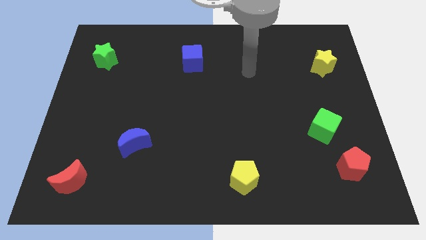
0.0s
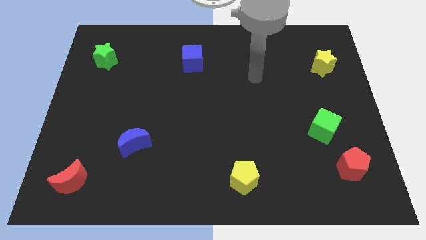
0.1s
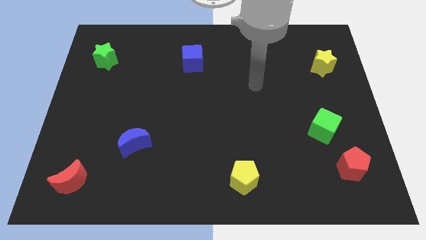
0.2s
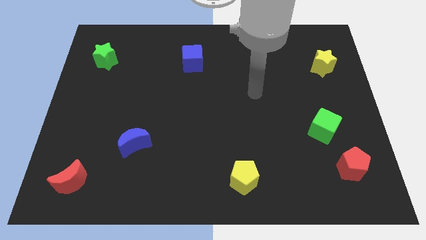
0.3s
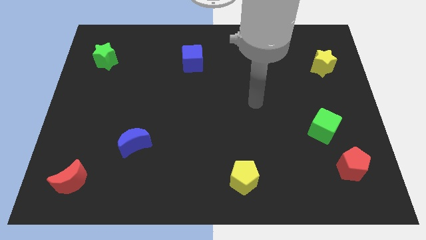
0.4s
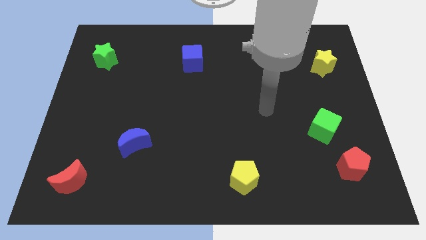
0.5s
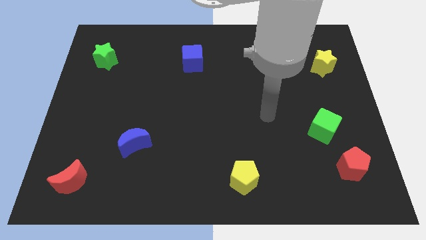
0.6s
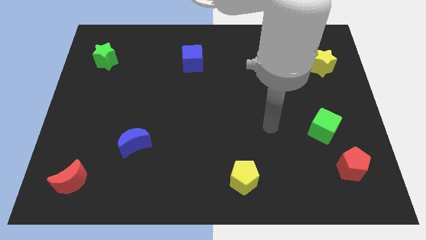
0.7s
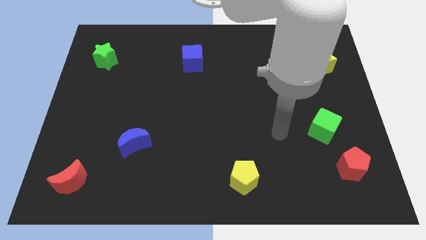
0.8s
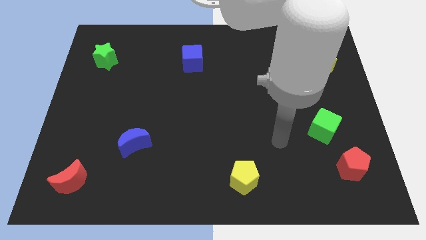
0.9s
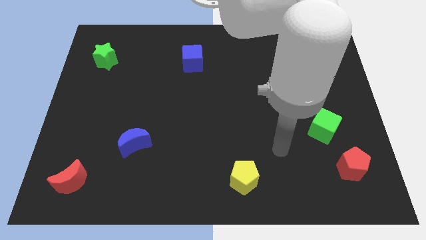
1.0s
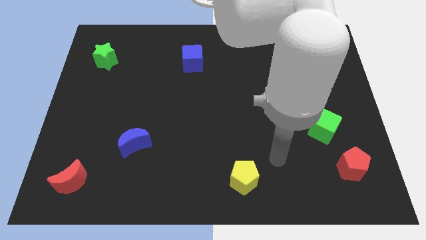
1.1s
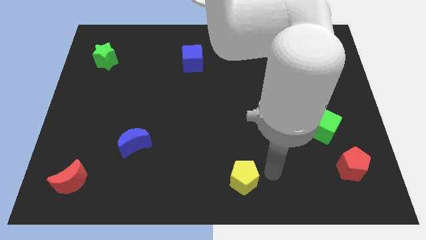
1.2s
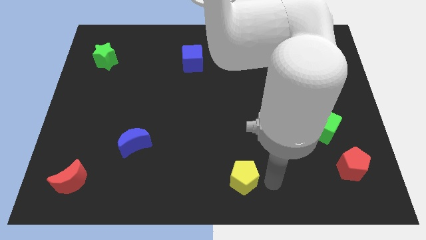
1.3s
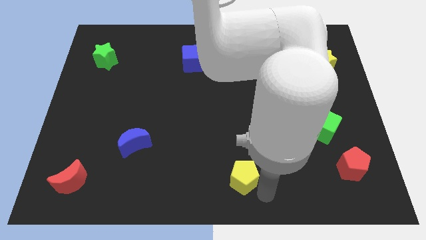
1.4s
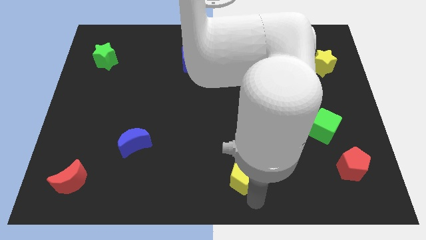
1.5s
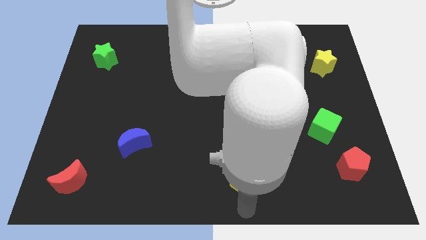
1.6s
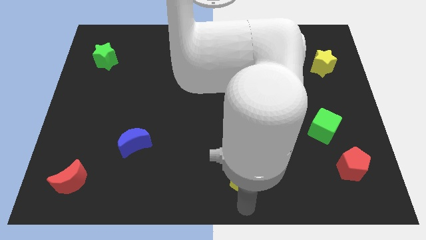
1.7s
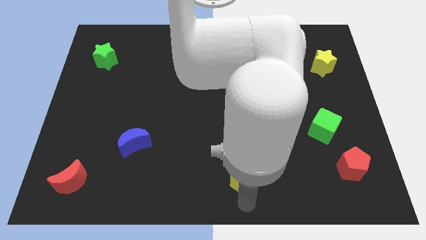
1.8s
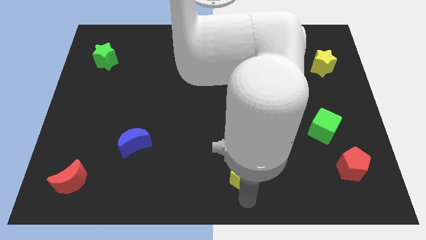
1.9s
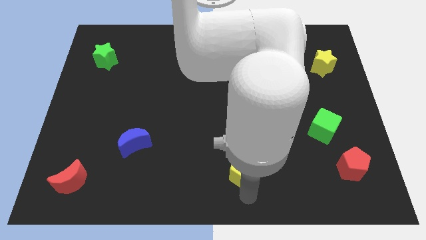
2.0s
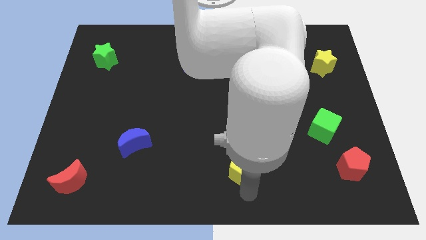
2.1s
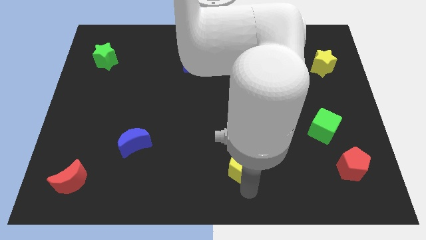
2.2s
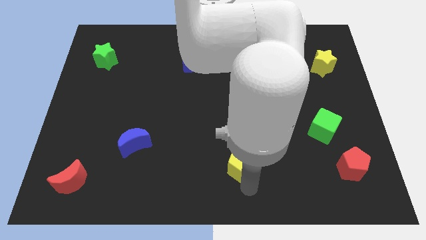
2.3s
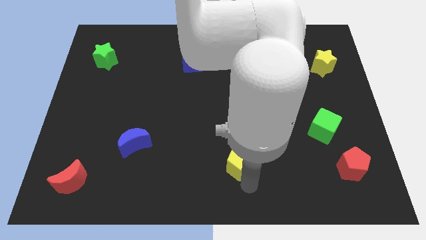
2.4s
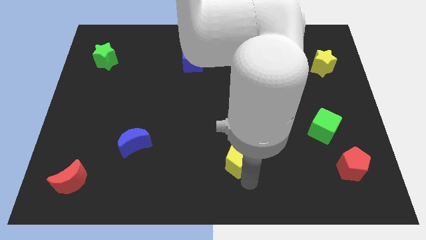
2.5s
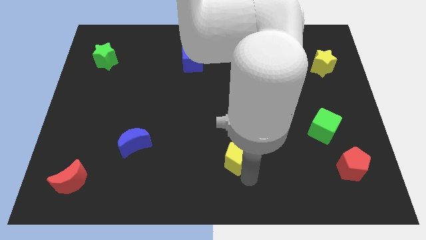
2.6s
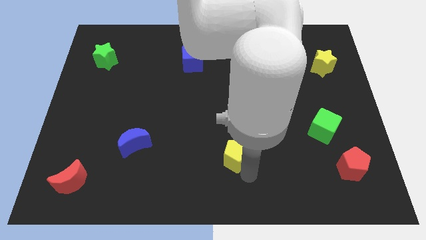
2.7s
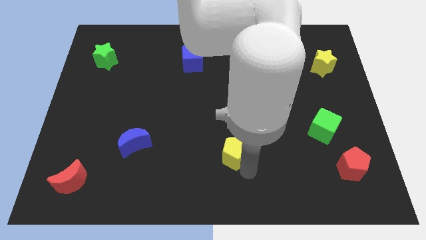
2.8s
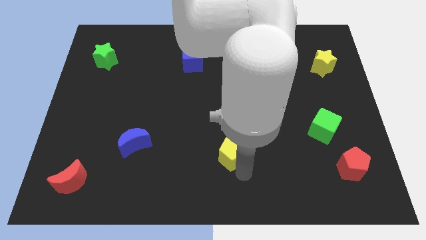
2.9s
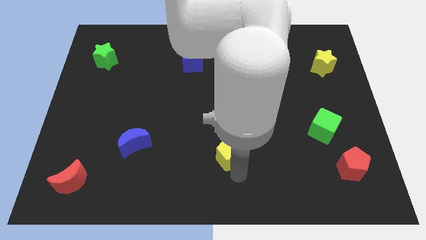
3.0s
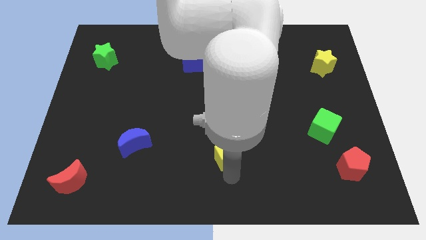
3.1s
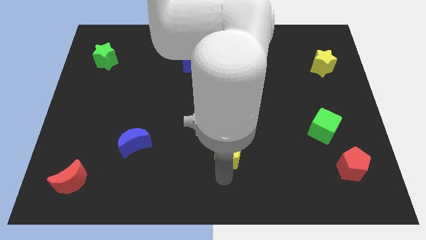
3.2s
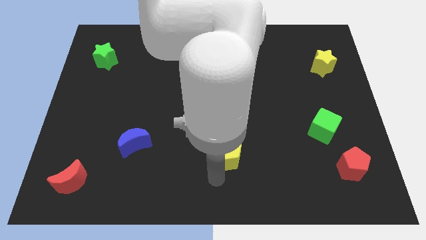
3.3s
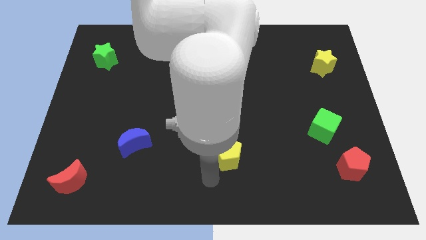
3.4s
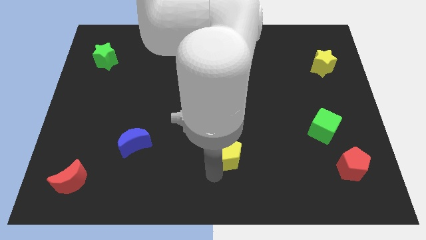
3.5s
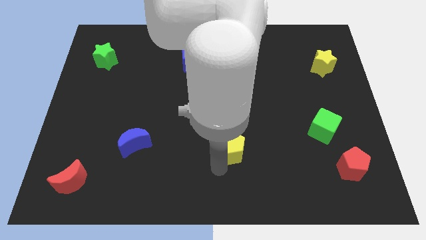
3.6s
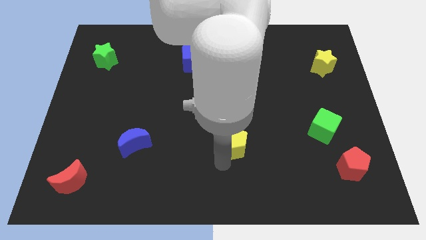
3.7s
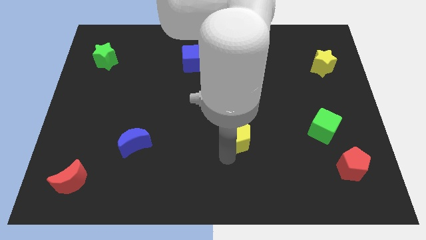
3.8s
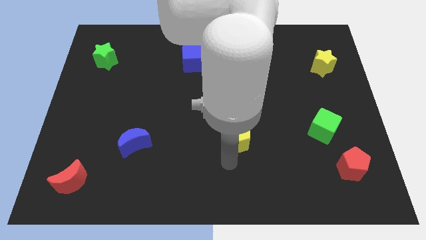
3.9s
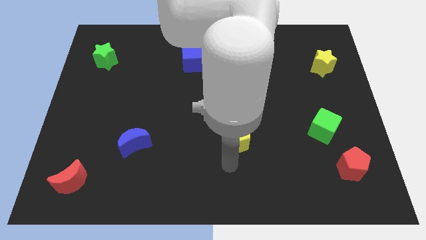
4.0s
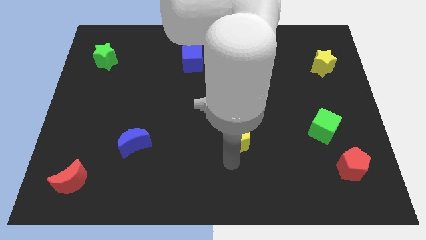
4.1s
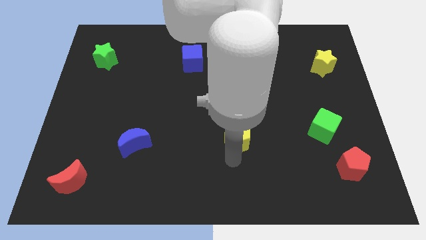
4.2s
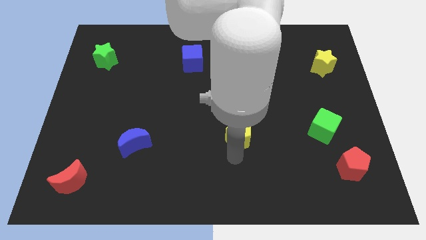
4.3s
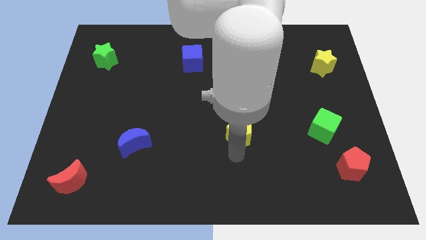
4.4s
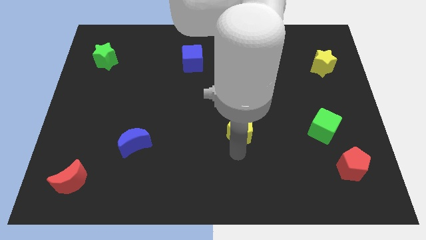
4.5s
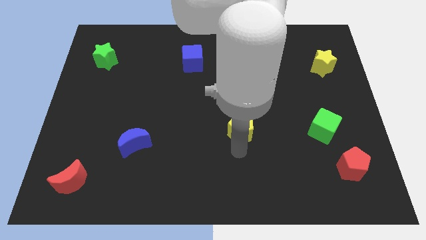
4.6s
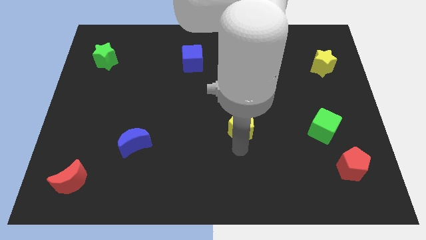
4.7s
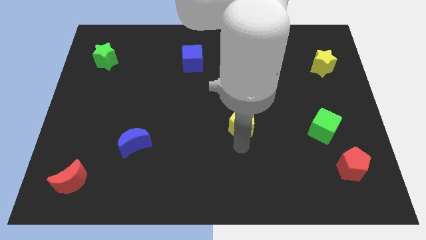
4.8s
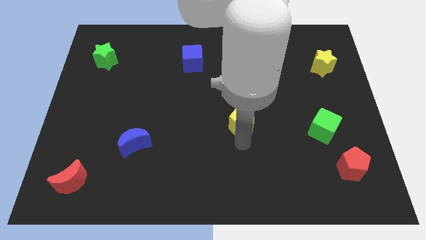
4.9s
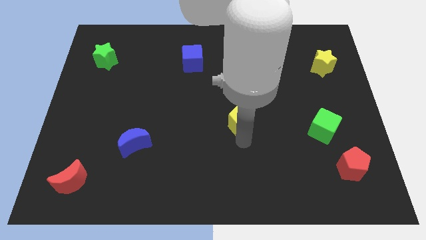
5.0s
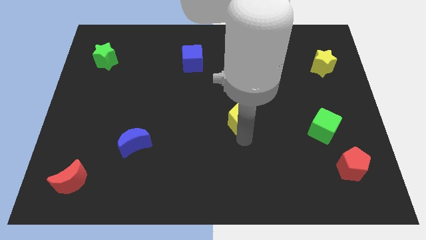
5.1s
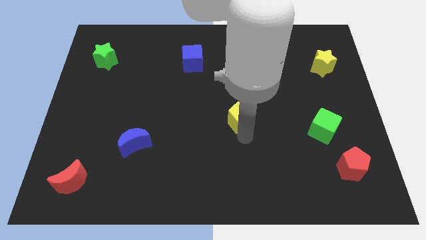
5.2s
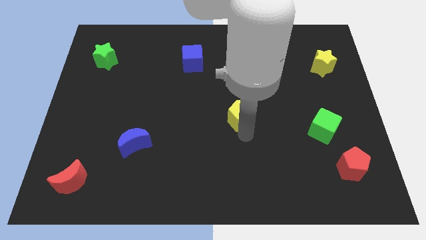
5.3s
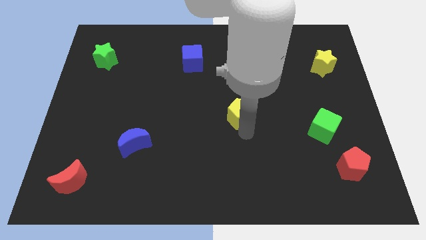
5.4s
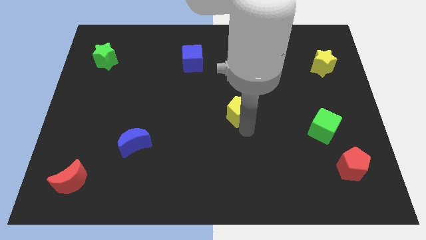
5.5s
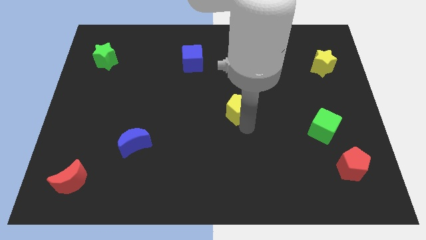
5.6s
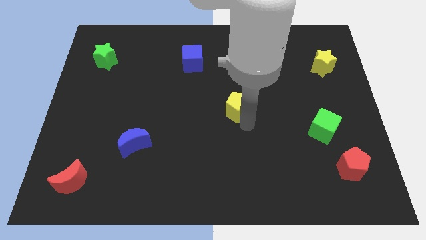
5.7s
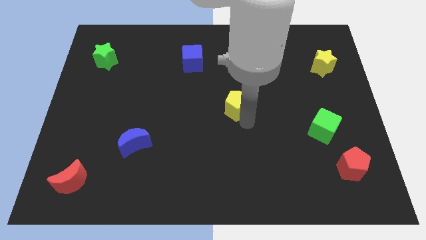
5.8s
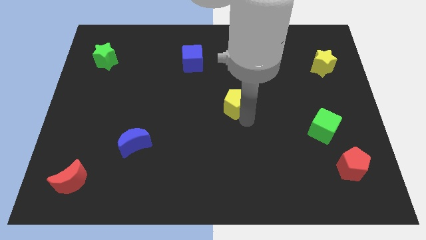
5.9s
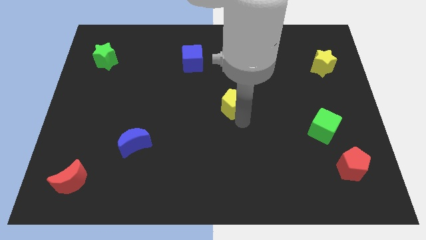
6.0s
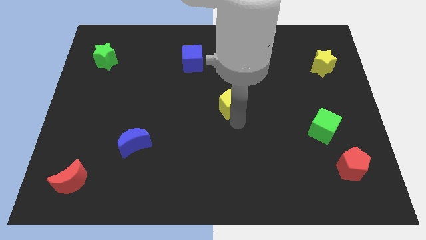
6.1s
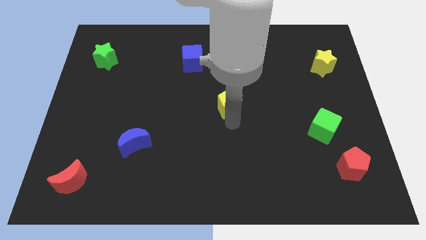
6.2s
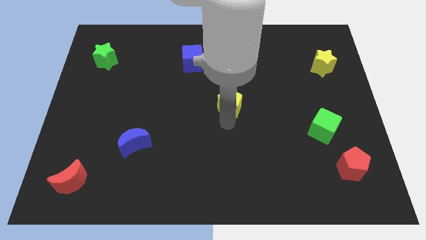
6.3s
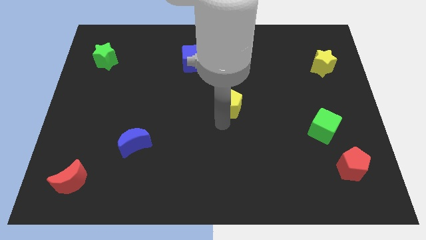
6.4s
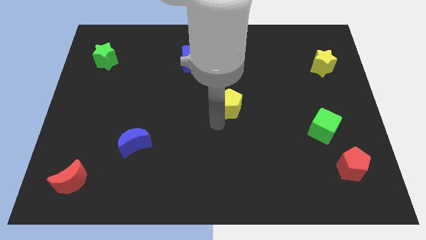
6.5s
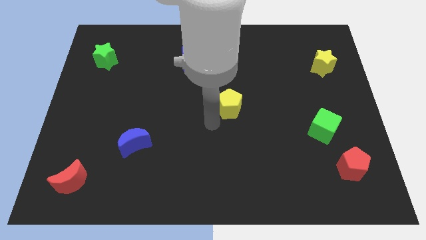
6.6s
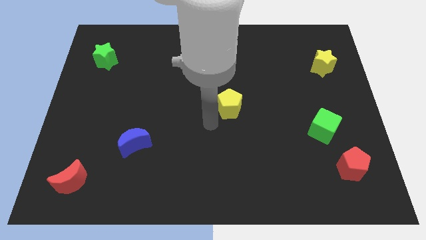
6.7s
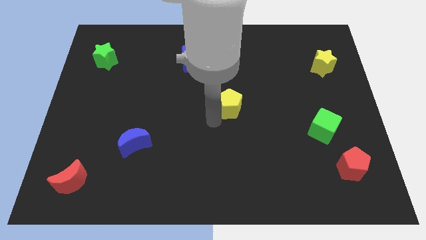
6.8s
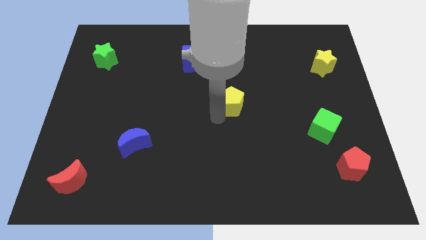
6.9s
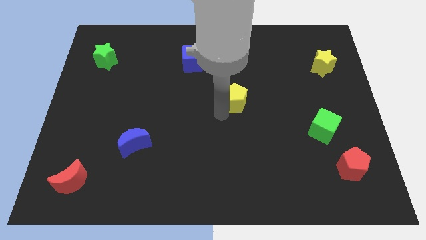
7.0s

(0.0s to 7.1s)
push the yellow pentagon up

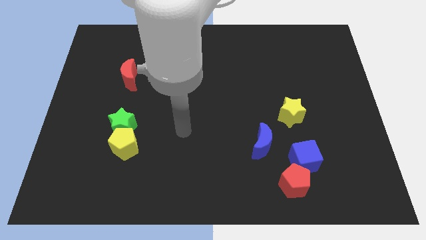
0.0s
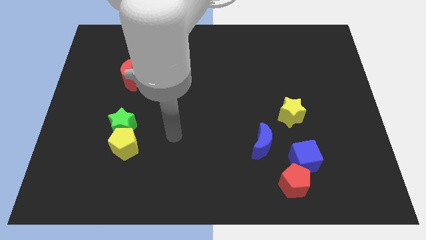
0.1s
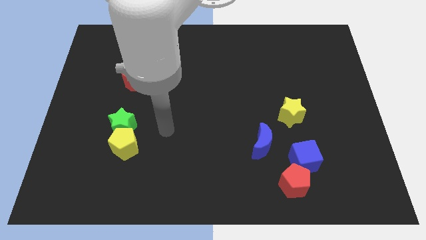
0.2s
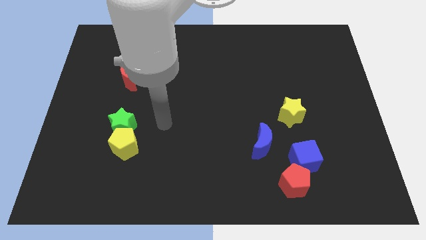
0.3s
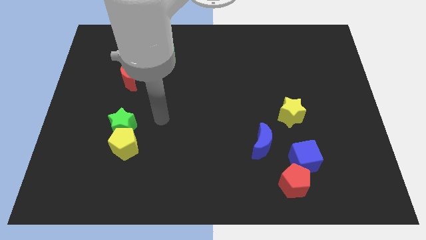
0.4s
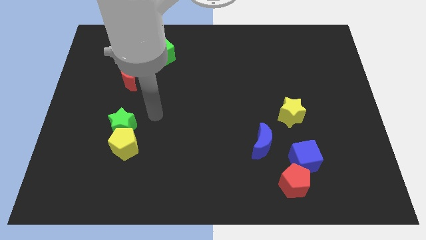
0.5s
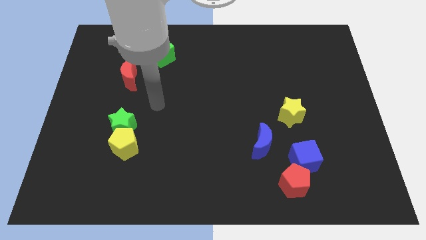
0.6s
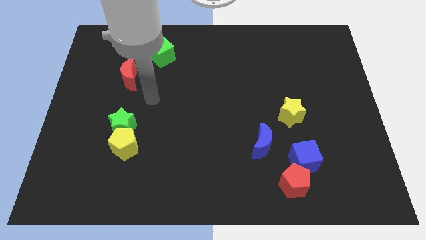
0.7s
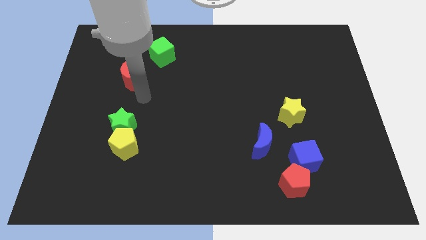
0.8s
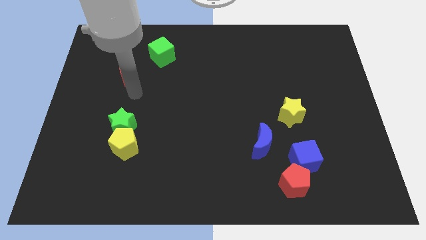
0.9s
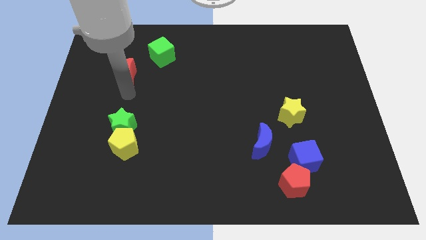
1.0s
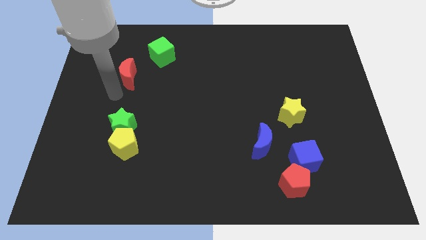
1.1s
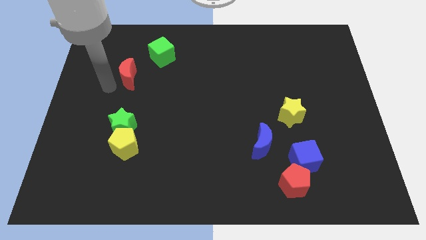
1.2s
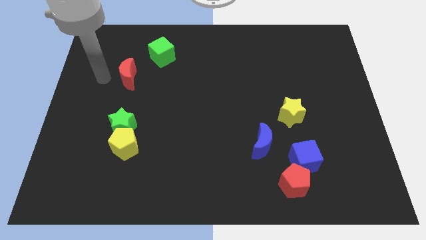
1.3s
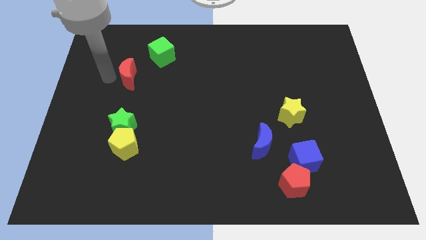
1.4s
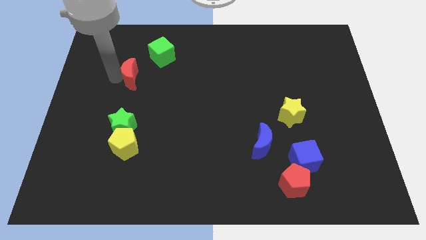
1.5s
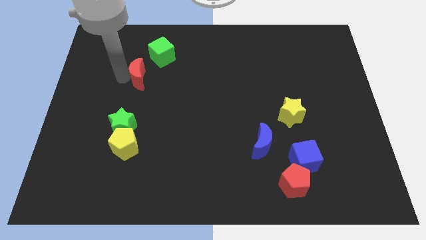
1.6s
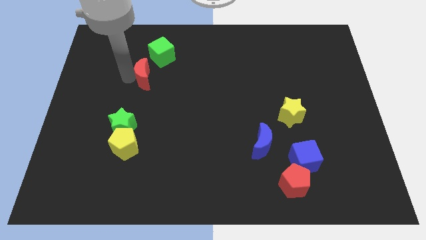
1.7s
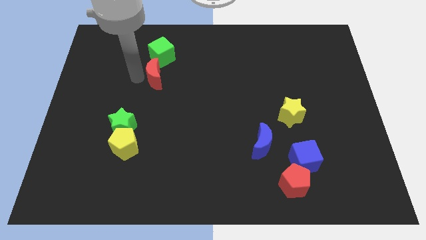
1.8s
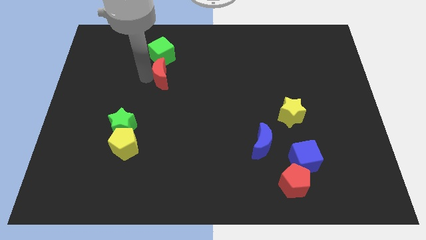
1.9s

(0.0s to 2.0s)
slide the red moon a bit right
